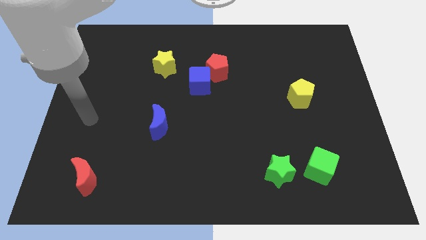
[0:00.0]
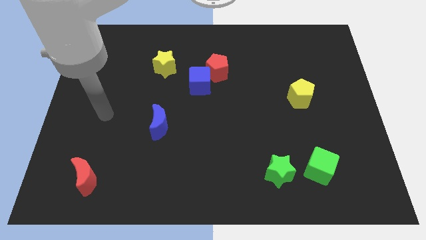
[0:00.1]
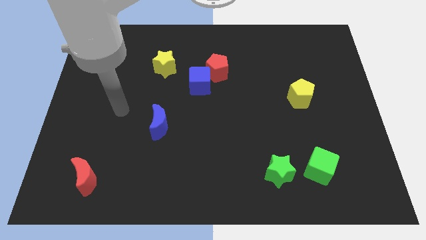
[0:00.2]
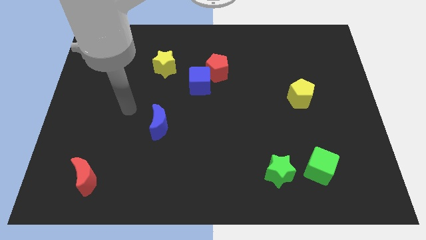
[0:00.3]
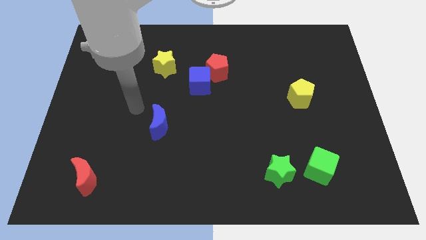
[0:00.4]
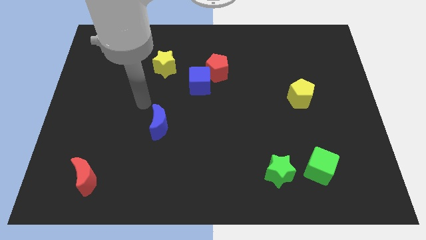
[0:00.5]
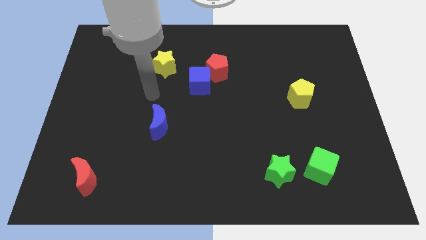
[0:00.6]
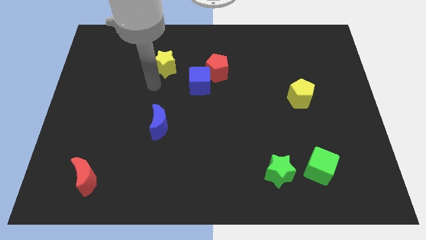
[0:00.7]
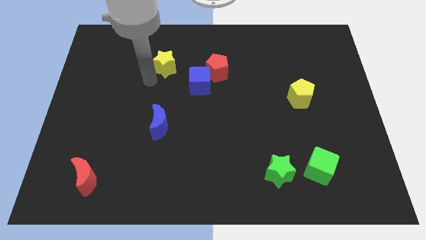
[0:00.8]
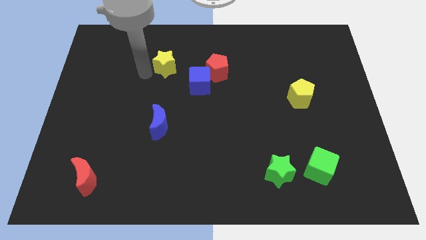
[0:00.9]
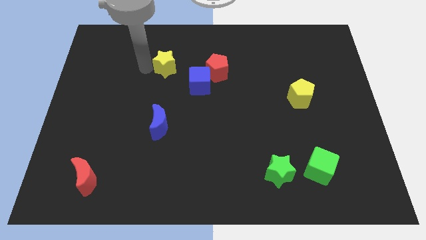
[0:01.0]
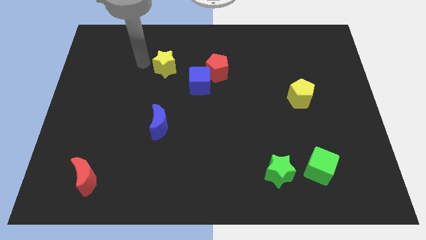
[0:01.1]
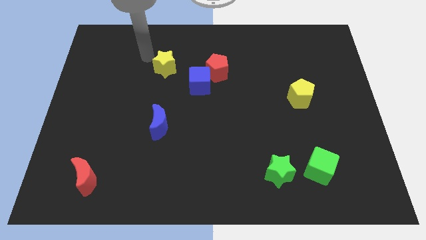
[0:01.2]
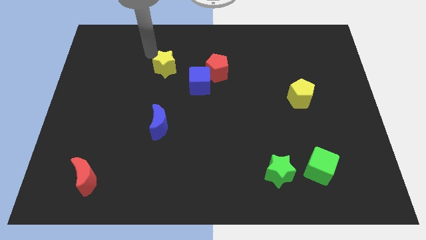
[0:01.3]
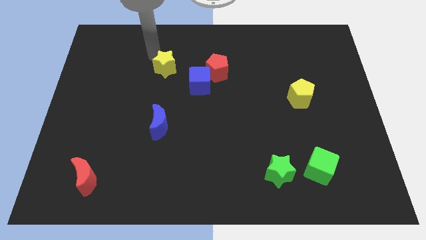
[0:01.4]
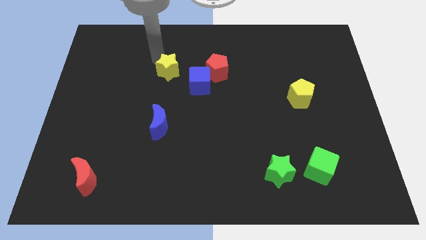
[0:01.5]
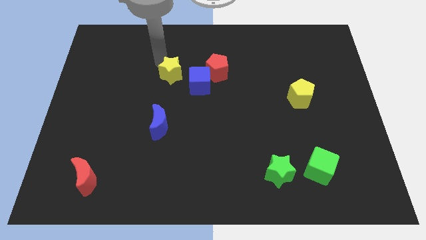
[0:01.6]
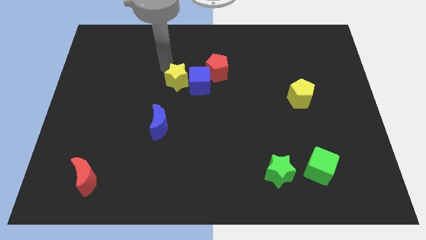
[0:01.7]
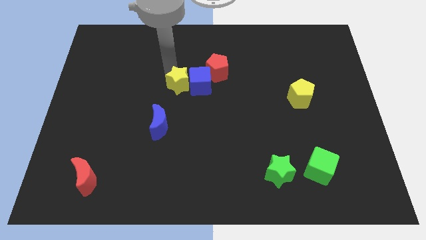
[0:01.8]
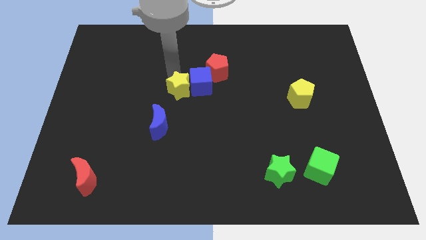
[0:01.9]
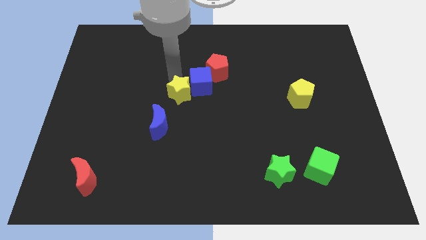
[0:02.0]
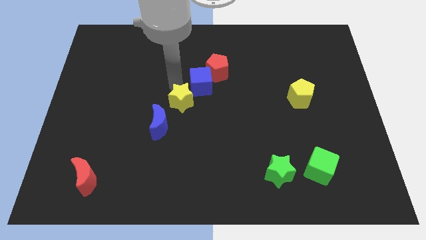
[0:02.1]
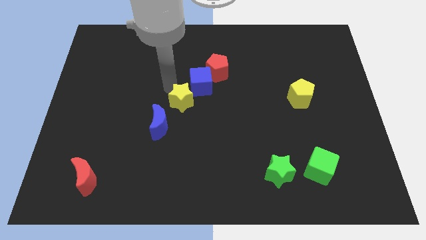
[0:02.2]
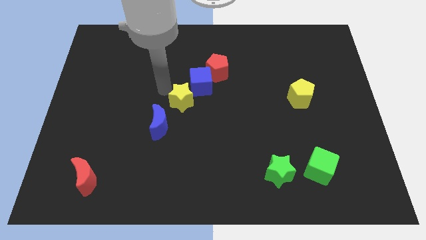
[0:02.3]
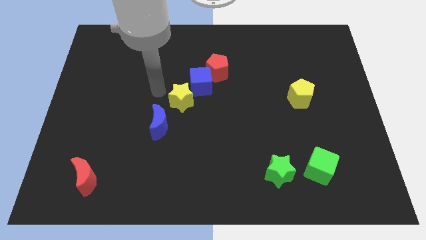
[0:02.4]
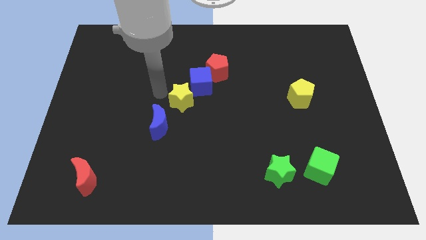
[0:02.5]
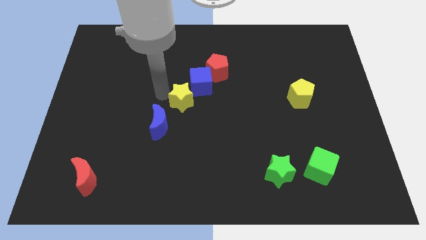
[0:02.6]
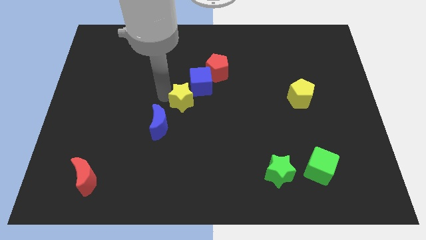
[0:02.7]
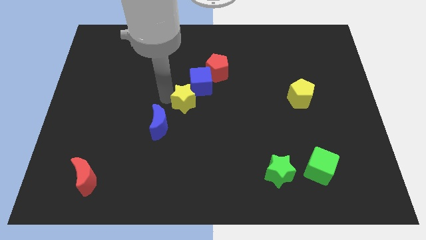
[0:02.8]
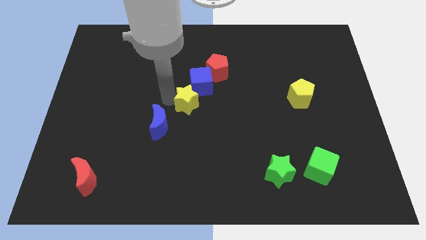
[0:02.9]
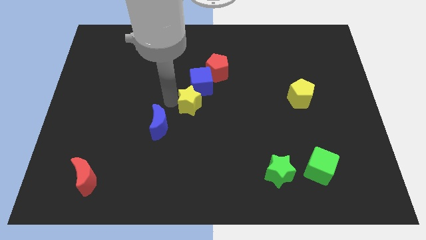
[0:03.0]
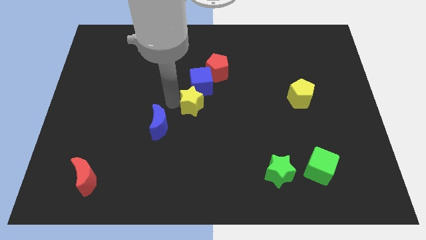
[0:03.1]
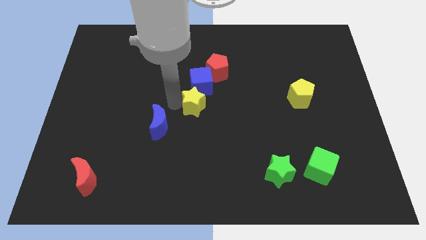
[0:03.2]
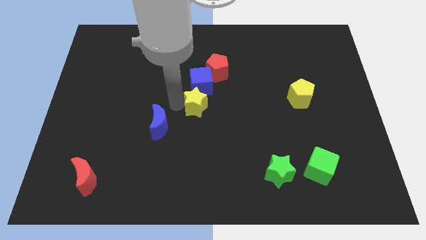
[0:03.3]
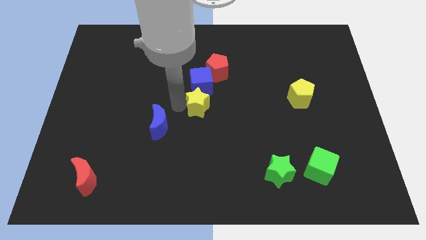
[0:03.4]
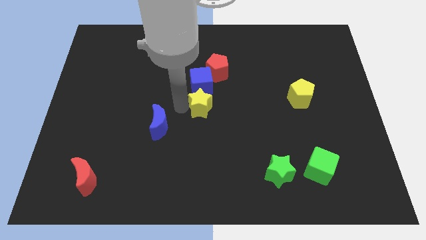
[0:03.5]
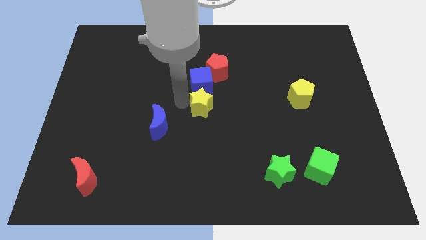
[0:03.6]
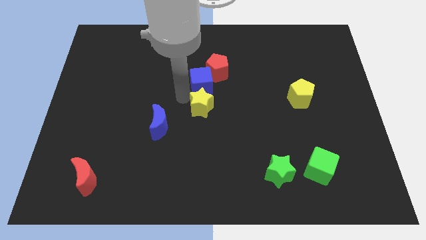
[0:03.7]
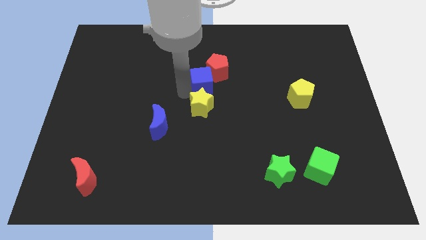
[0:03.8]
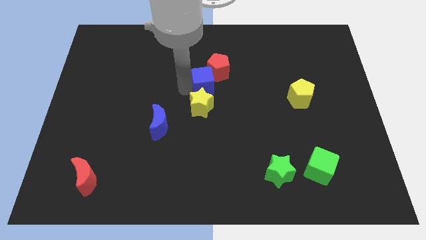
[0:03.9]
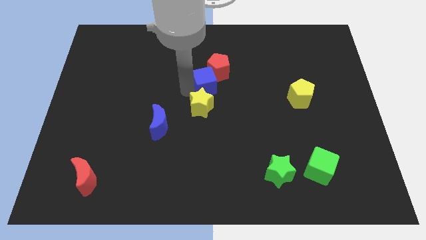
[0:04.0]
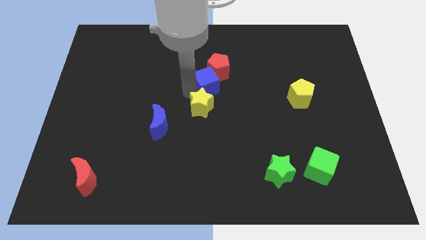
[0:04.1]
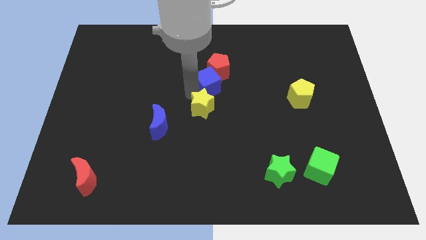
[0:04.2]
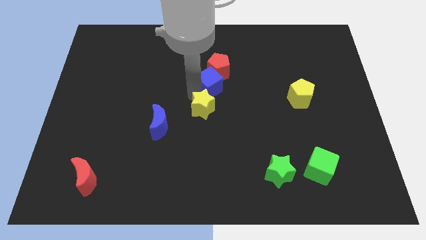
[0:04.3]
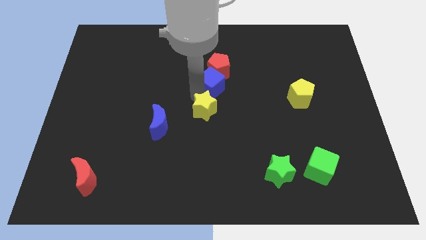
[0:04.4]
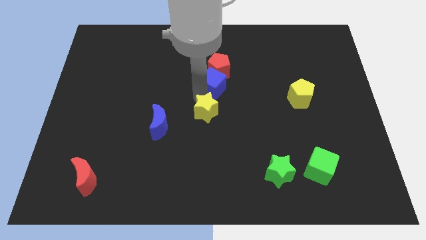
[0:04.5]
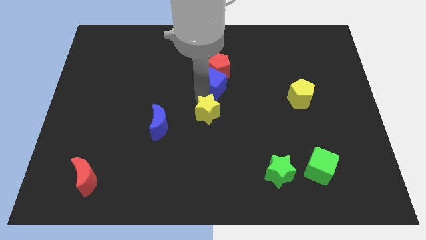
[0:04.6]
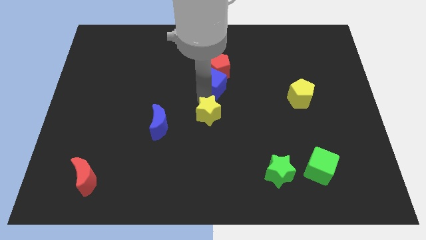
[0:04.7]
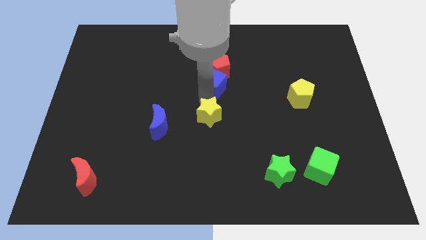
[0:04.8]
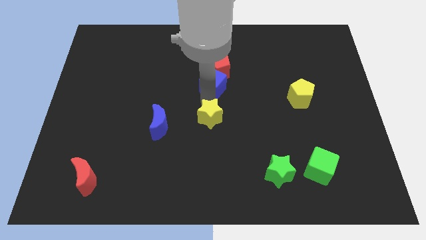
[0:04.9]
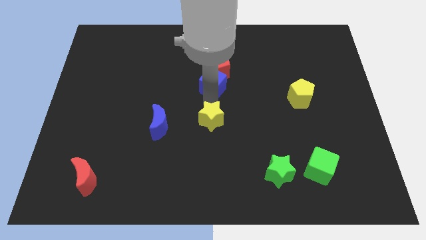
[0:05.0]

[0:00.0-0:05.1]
push the yellow star downwards and to the right diagonally

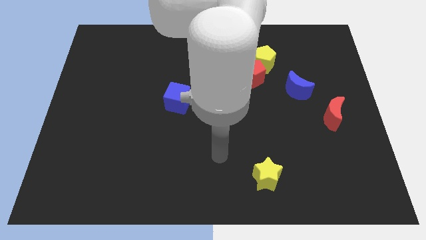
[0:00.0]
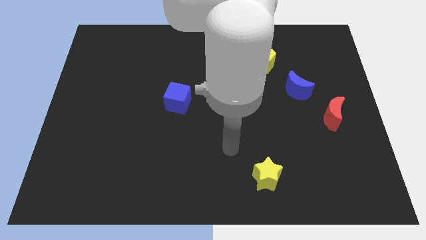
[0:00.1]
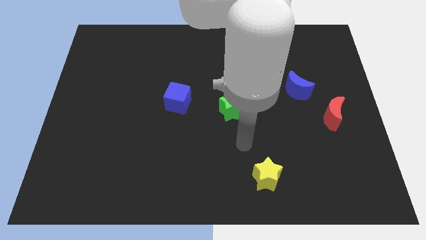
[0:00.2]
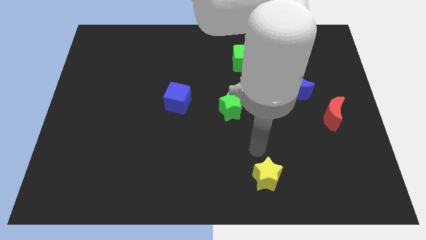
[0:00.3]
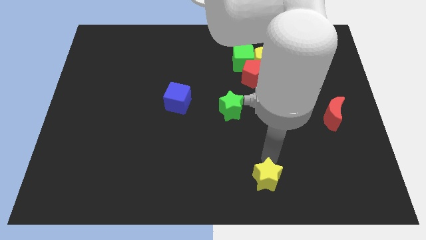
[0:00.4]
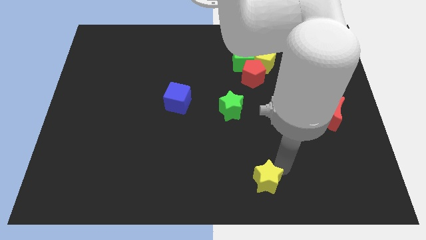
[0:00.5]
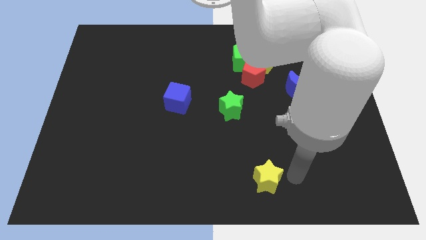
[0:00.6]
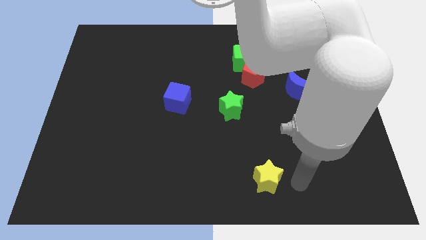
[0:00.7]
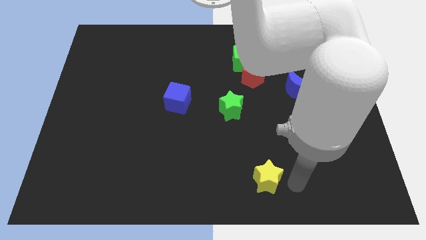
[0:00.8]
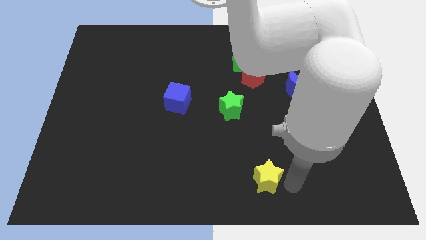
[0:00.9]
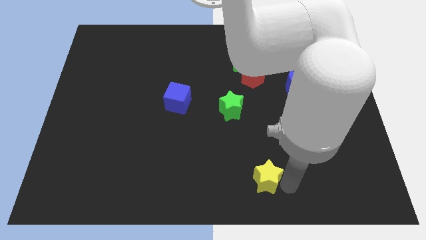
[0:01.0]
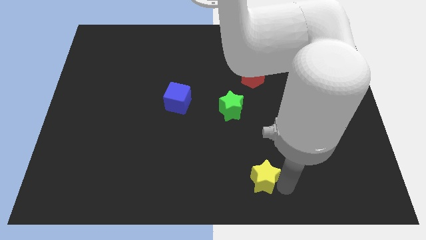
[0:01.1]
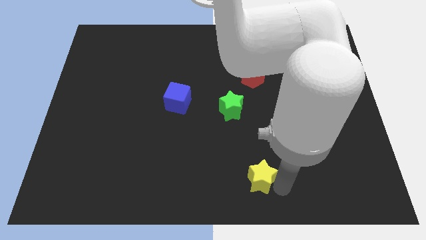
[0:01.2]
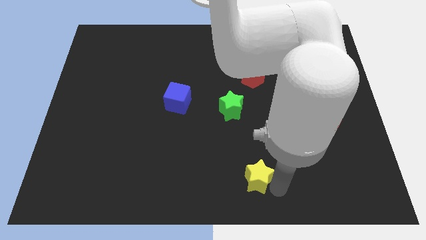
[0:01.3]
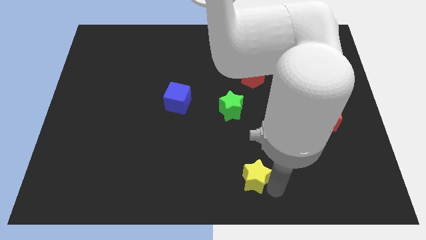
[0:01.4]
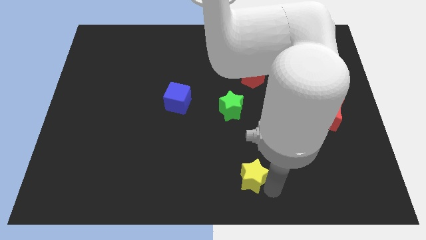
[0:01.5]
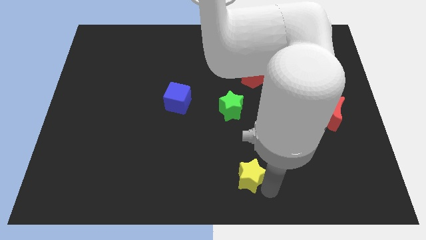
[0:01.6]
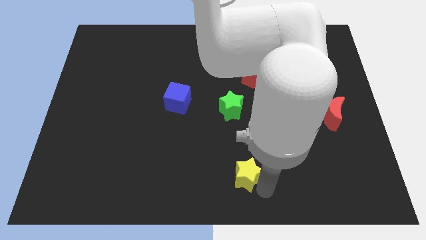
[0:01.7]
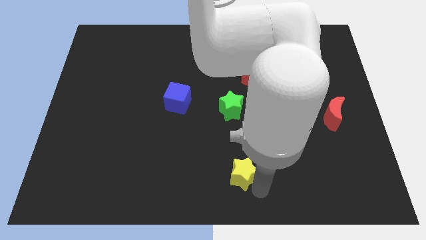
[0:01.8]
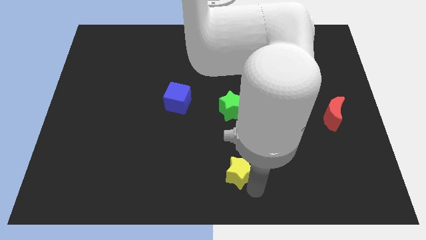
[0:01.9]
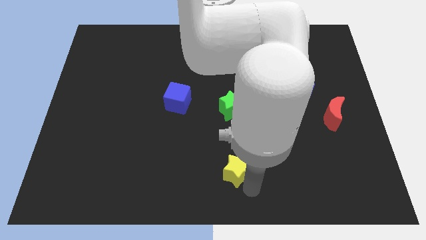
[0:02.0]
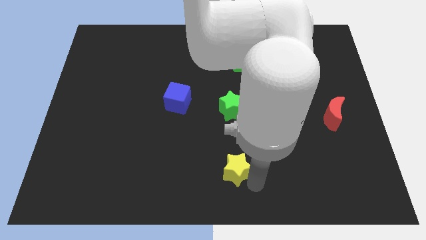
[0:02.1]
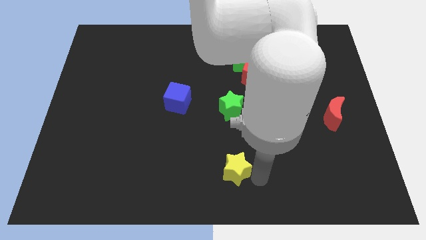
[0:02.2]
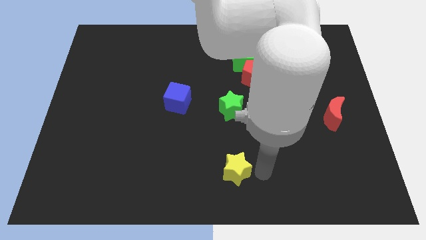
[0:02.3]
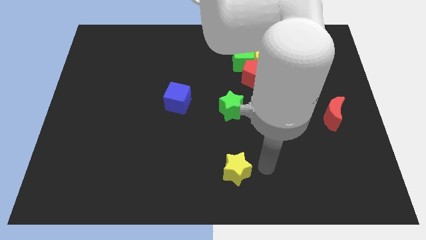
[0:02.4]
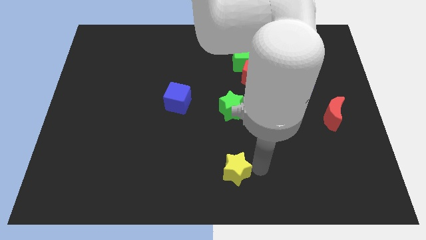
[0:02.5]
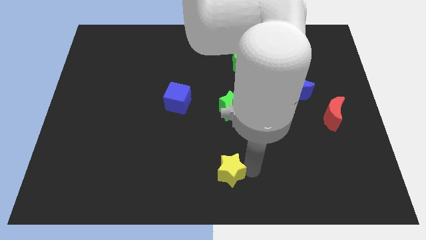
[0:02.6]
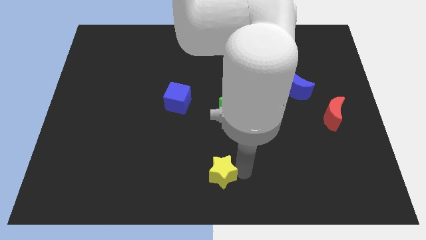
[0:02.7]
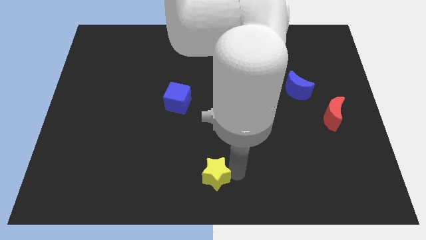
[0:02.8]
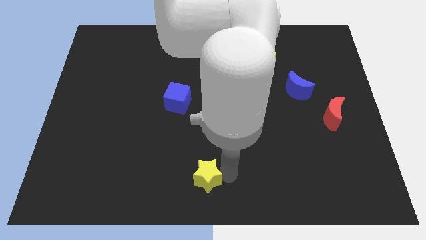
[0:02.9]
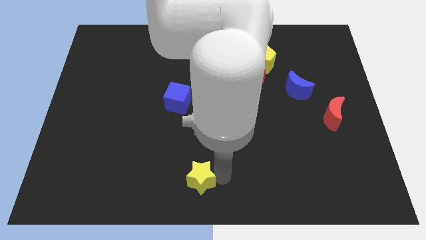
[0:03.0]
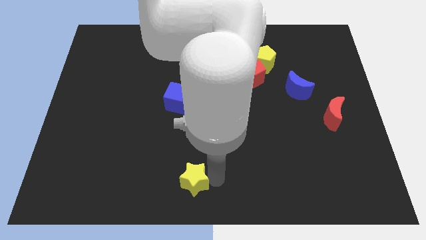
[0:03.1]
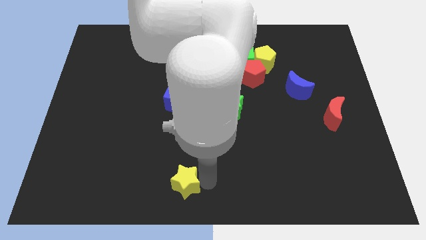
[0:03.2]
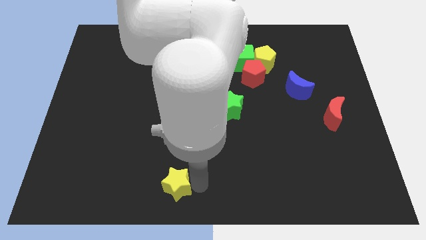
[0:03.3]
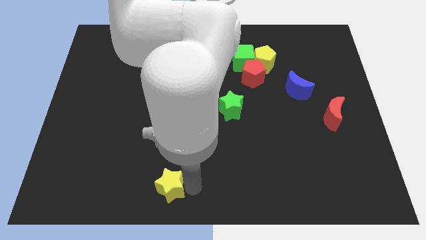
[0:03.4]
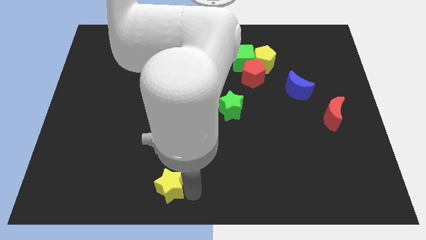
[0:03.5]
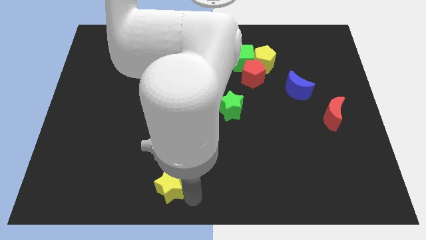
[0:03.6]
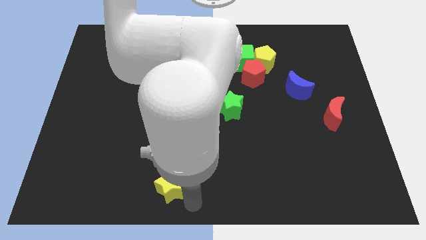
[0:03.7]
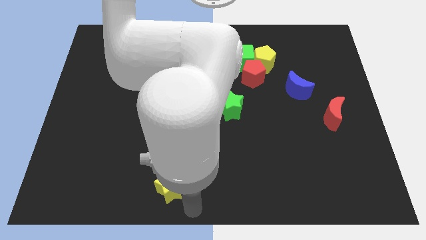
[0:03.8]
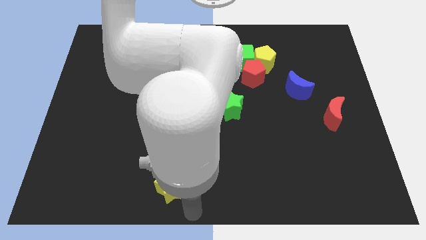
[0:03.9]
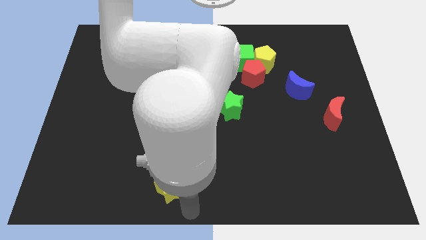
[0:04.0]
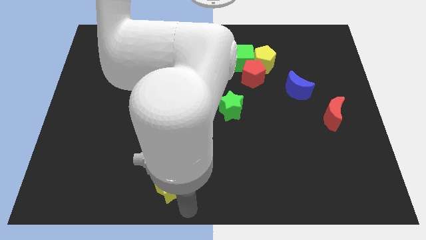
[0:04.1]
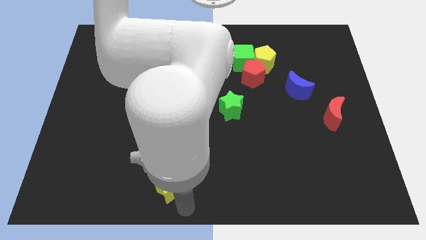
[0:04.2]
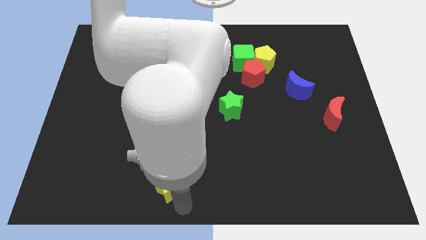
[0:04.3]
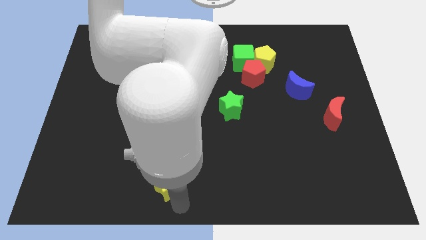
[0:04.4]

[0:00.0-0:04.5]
slide the yellow star to the left
